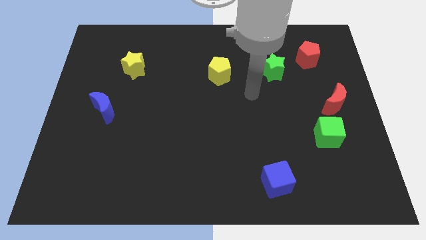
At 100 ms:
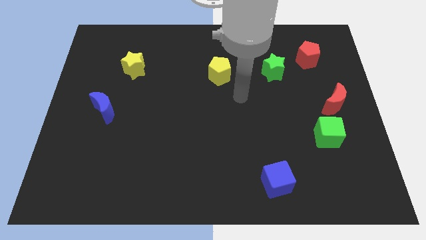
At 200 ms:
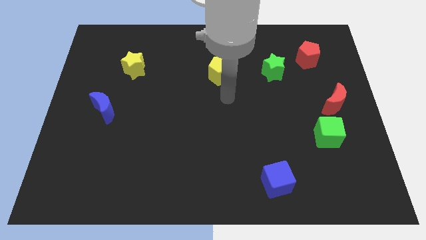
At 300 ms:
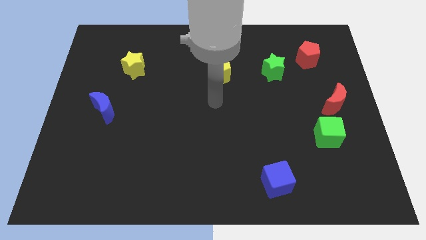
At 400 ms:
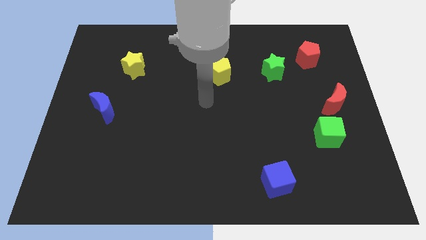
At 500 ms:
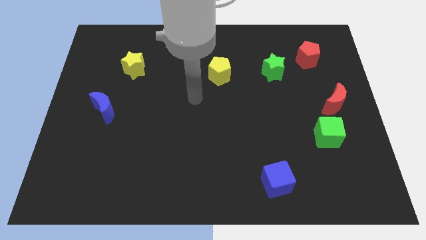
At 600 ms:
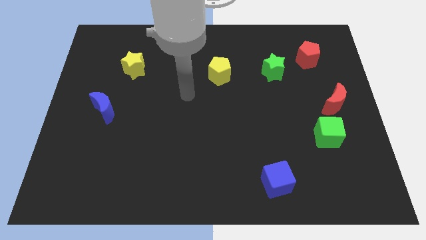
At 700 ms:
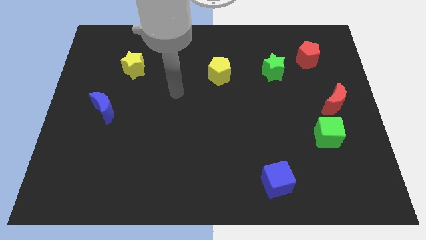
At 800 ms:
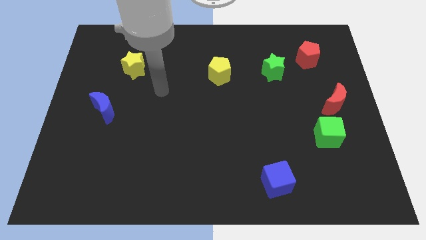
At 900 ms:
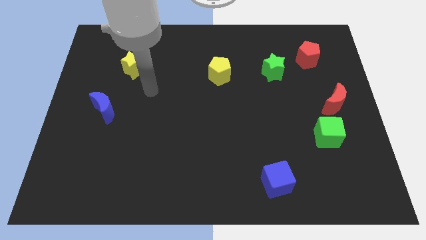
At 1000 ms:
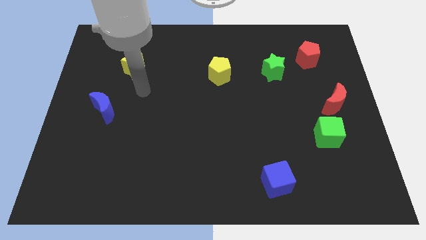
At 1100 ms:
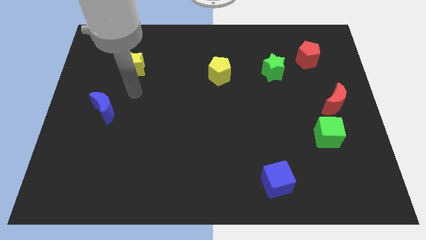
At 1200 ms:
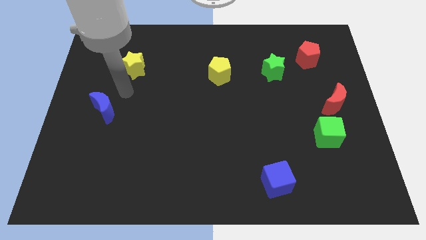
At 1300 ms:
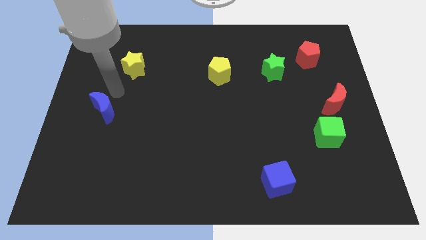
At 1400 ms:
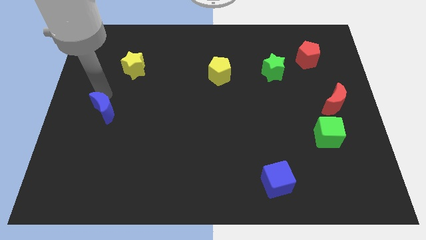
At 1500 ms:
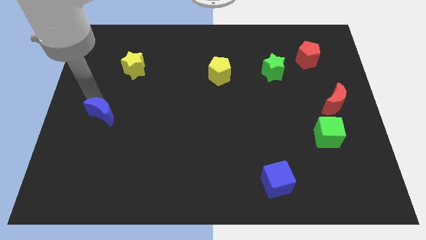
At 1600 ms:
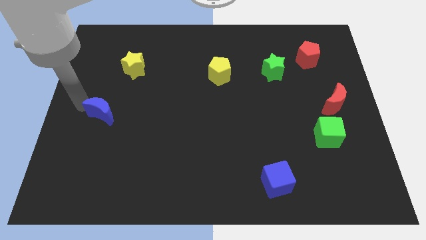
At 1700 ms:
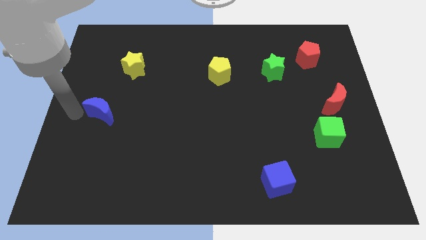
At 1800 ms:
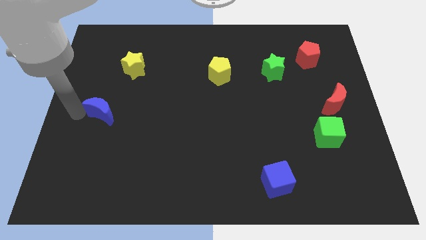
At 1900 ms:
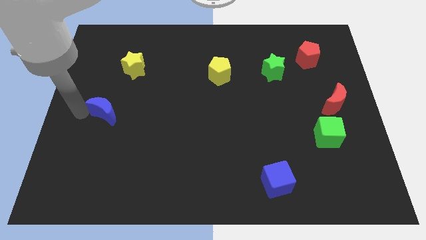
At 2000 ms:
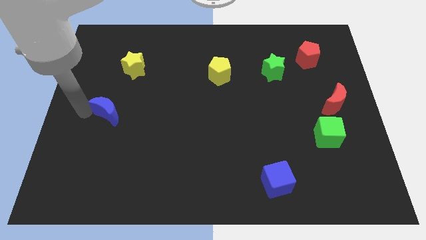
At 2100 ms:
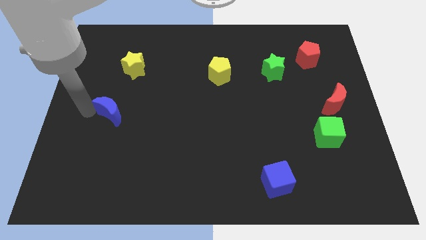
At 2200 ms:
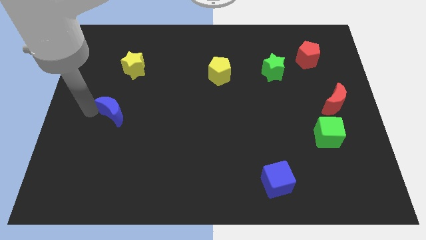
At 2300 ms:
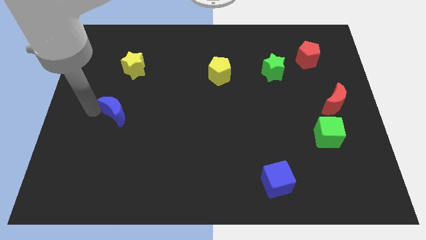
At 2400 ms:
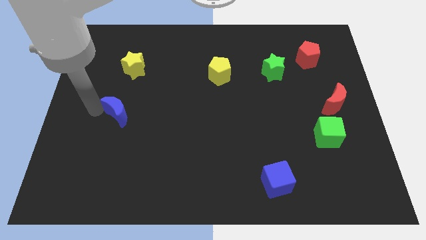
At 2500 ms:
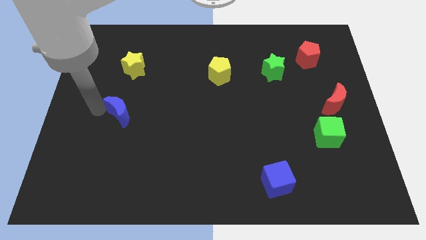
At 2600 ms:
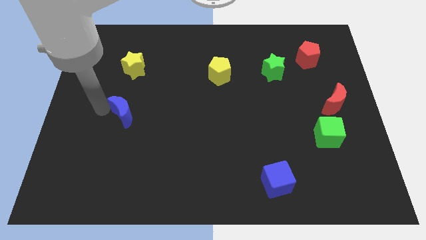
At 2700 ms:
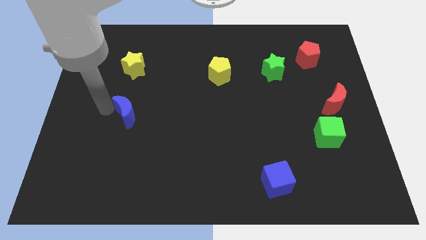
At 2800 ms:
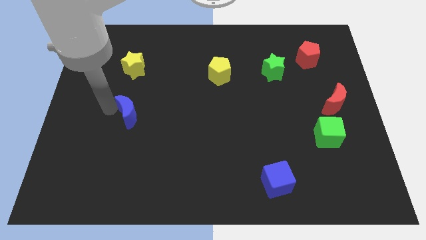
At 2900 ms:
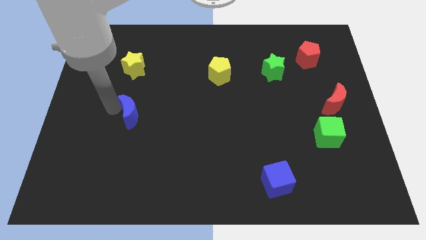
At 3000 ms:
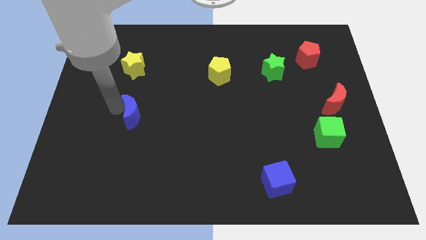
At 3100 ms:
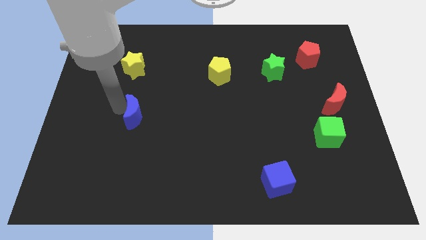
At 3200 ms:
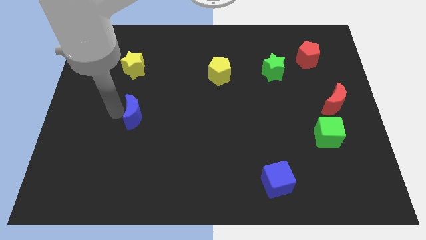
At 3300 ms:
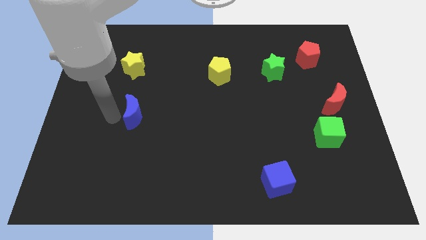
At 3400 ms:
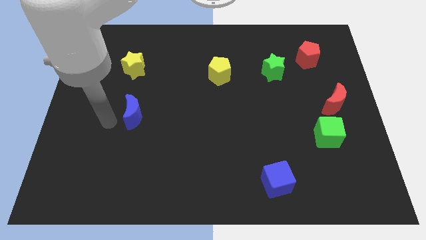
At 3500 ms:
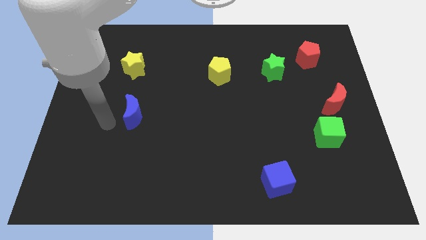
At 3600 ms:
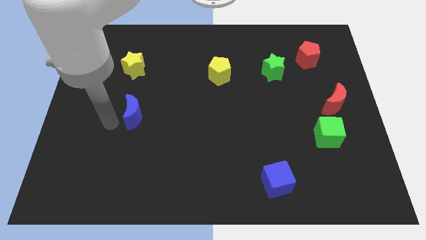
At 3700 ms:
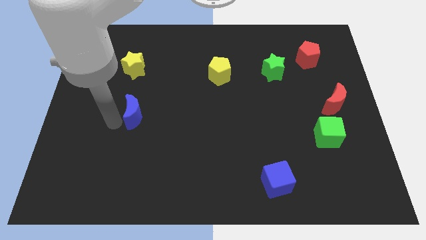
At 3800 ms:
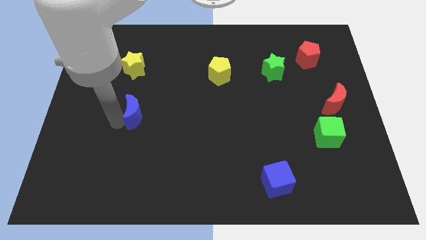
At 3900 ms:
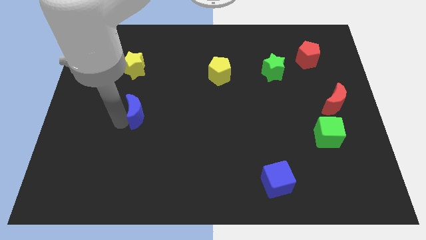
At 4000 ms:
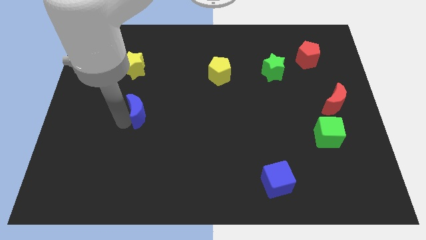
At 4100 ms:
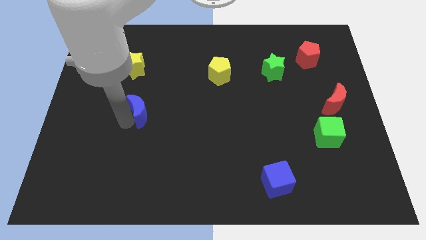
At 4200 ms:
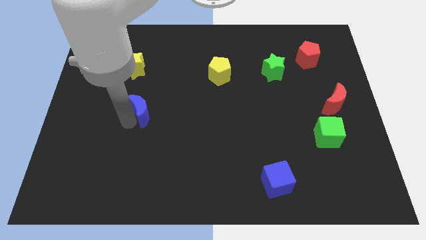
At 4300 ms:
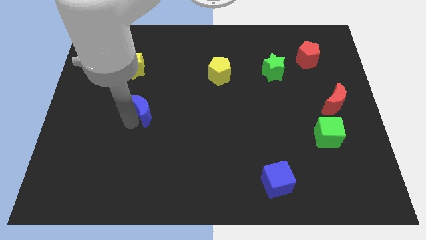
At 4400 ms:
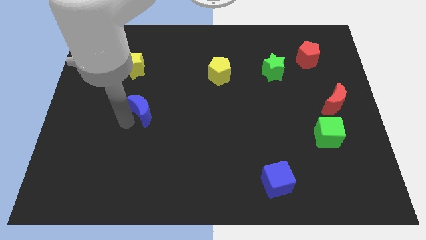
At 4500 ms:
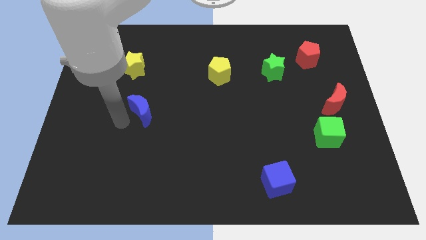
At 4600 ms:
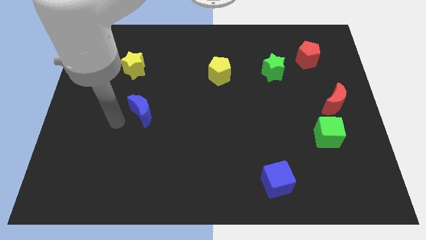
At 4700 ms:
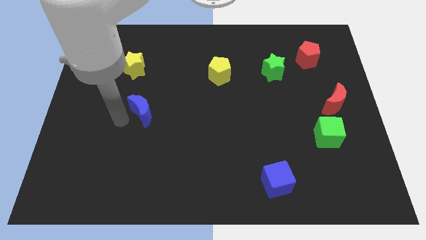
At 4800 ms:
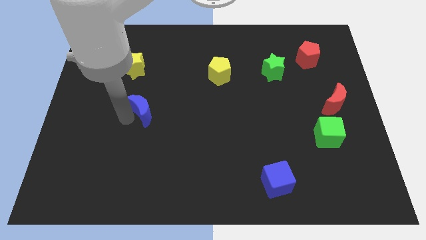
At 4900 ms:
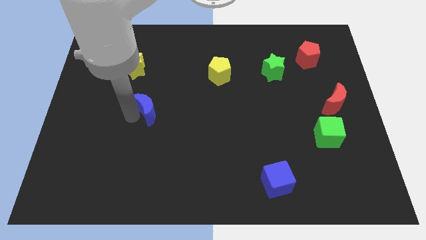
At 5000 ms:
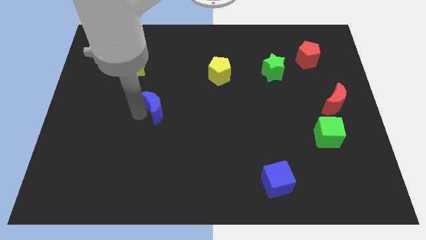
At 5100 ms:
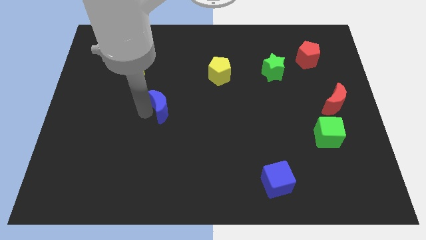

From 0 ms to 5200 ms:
put the blue moon to the center of the board

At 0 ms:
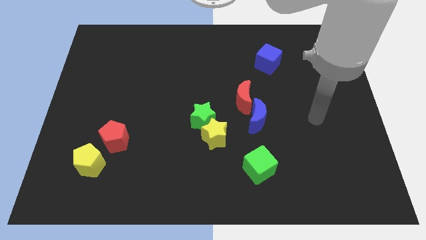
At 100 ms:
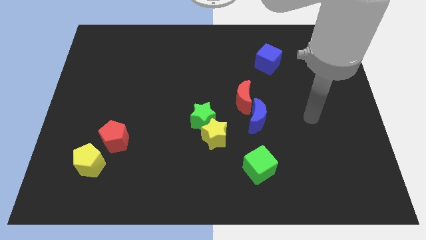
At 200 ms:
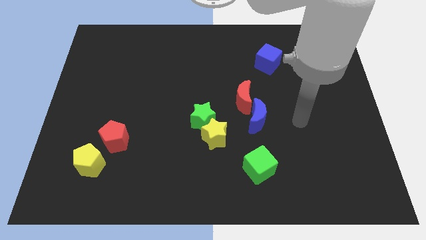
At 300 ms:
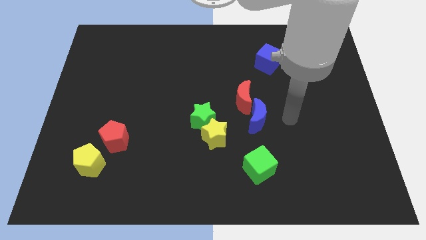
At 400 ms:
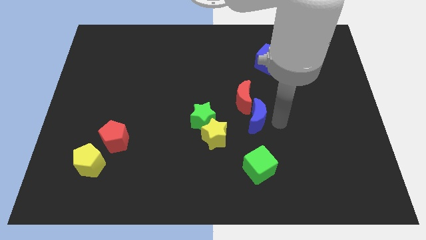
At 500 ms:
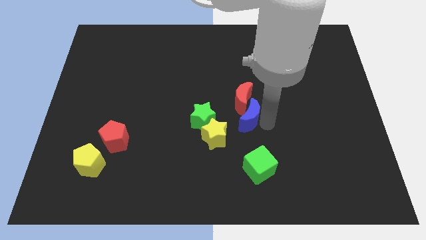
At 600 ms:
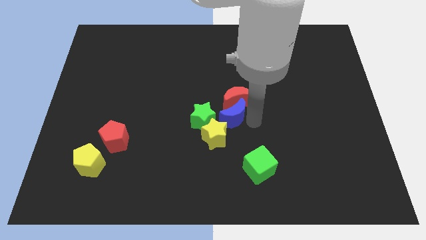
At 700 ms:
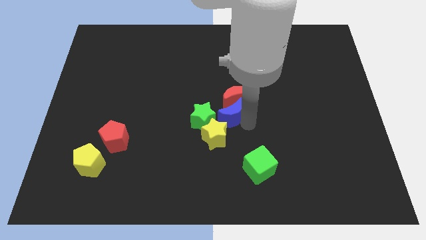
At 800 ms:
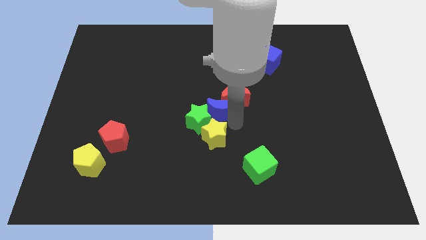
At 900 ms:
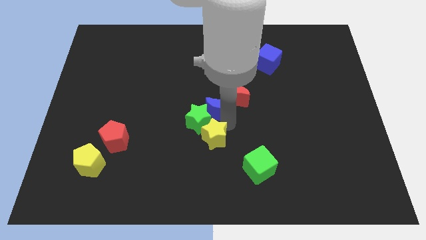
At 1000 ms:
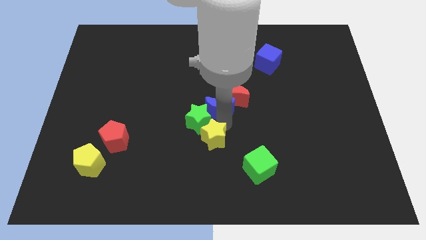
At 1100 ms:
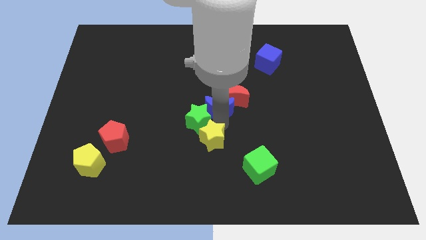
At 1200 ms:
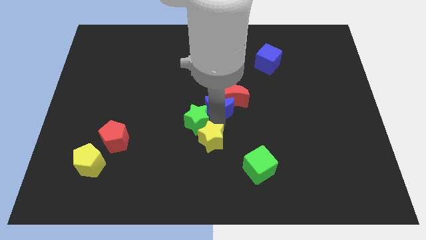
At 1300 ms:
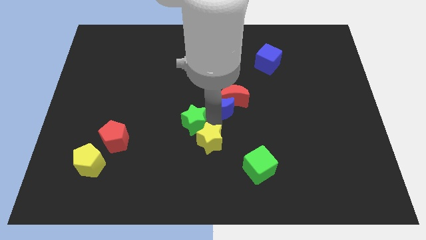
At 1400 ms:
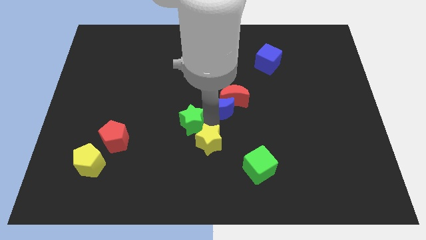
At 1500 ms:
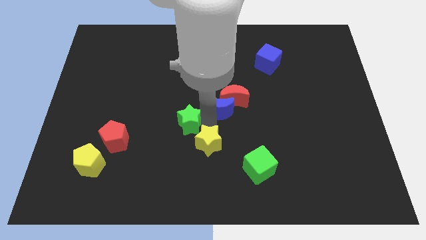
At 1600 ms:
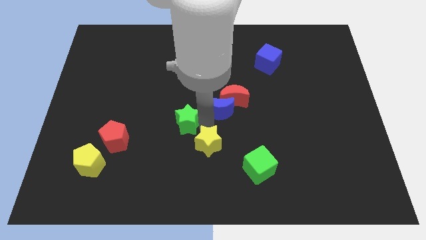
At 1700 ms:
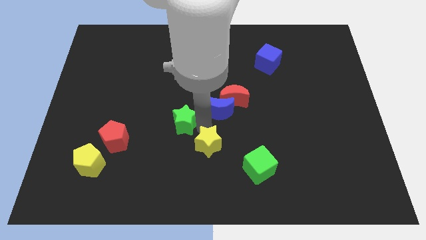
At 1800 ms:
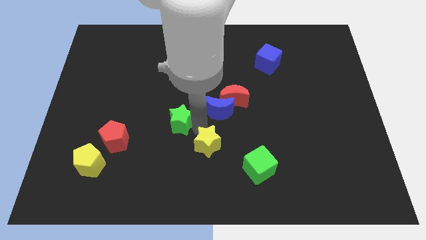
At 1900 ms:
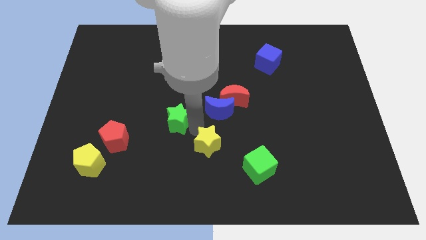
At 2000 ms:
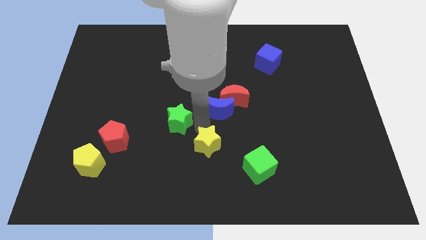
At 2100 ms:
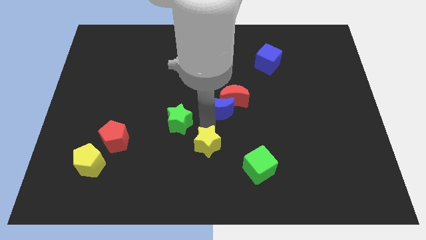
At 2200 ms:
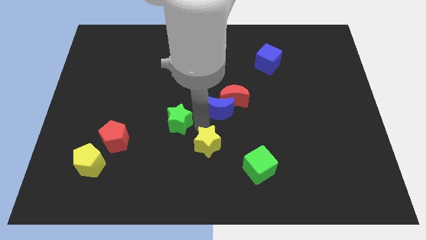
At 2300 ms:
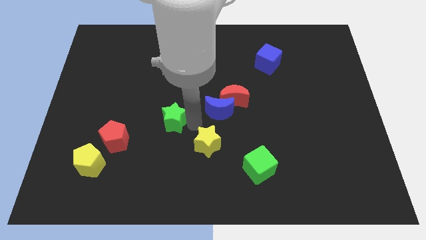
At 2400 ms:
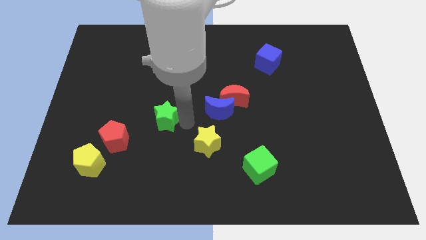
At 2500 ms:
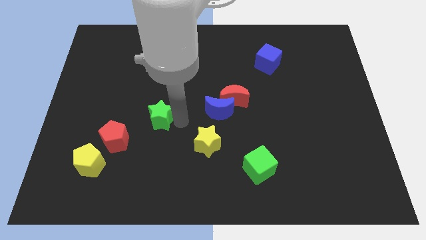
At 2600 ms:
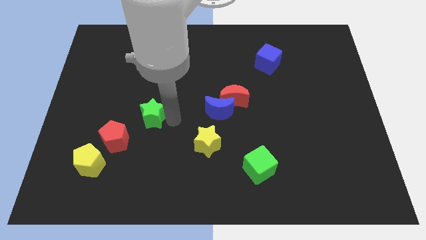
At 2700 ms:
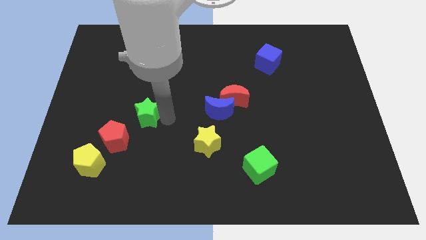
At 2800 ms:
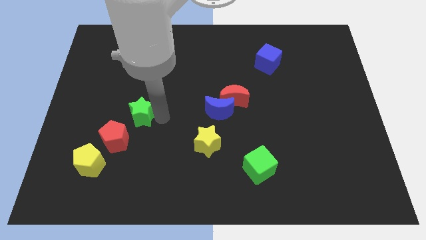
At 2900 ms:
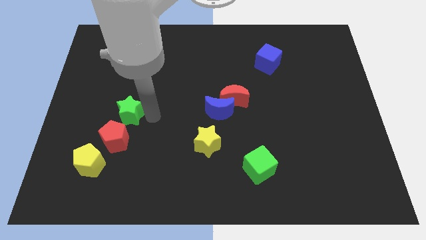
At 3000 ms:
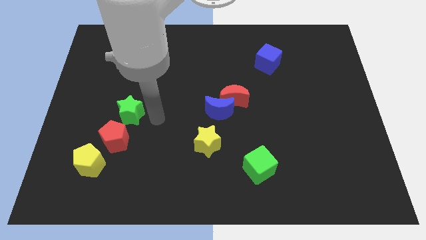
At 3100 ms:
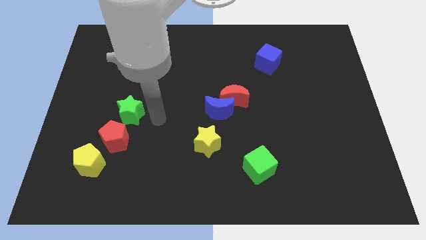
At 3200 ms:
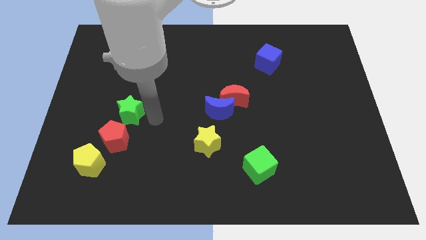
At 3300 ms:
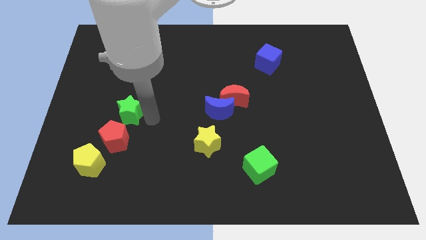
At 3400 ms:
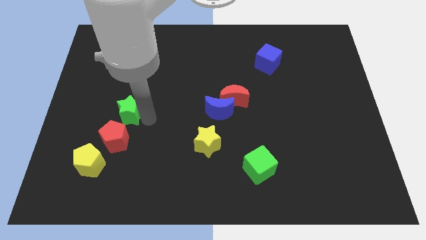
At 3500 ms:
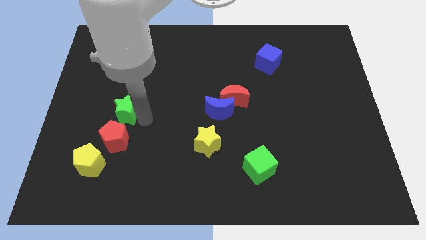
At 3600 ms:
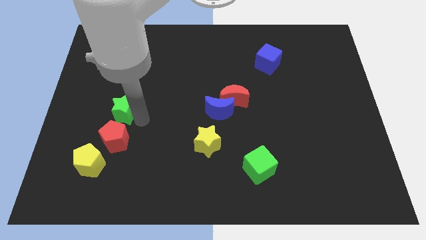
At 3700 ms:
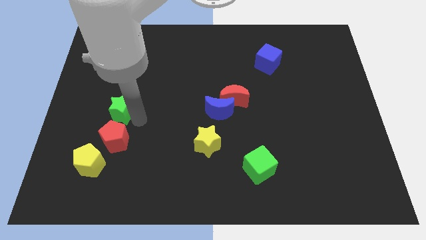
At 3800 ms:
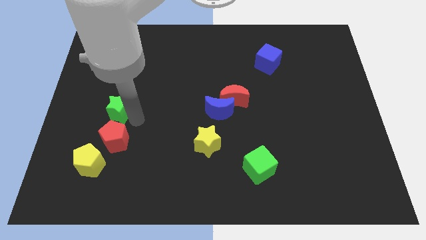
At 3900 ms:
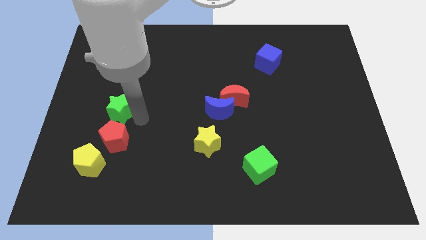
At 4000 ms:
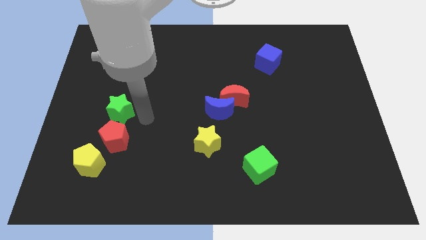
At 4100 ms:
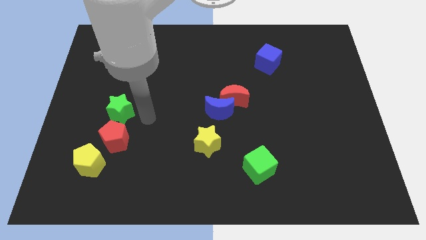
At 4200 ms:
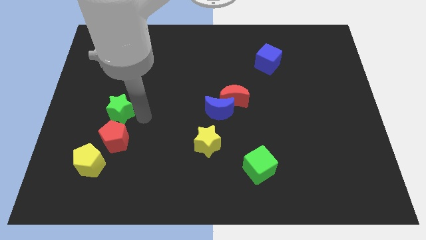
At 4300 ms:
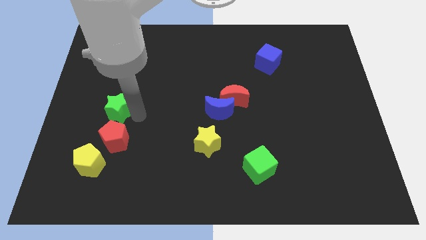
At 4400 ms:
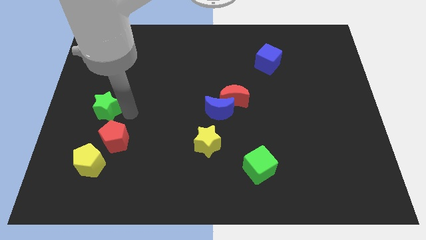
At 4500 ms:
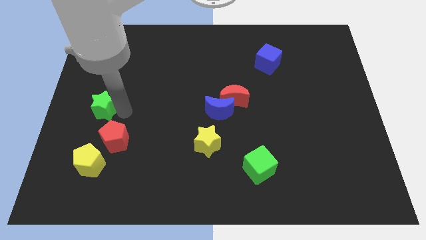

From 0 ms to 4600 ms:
put the green star to the center left
